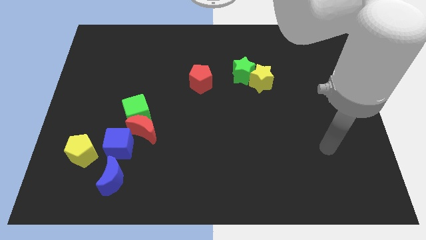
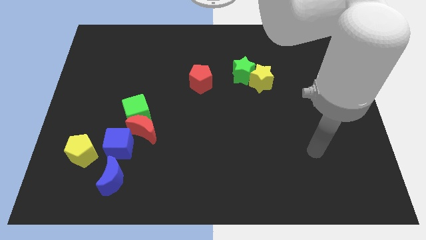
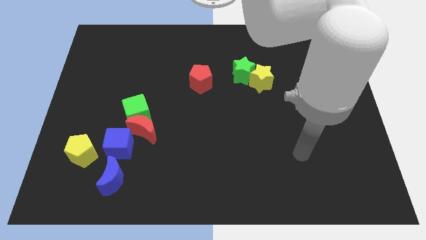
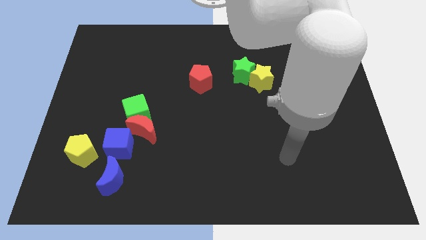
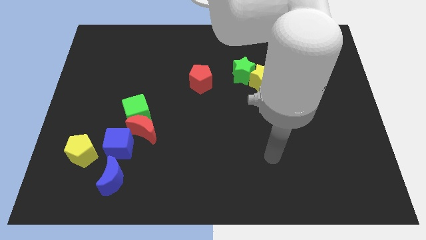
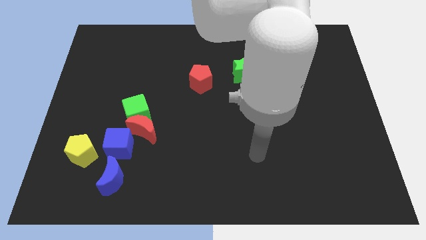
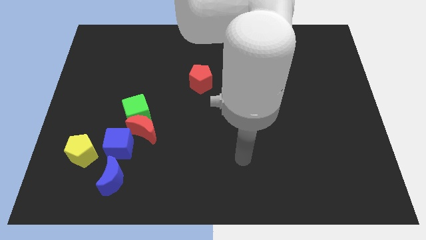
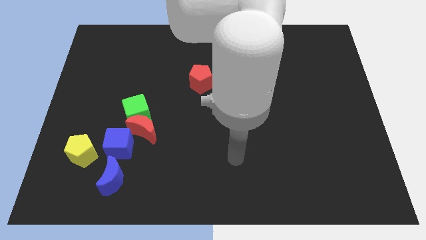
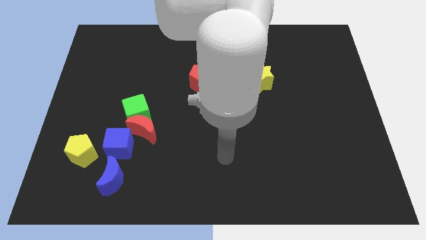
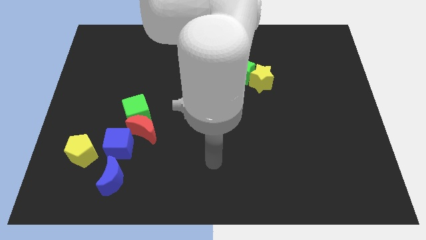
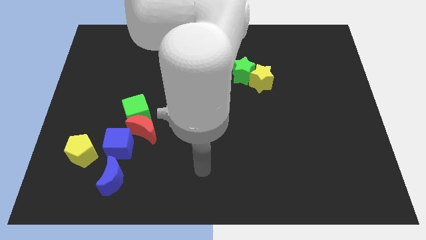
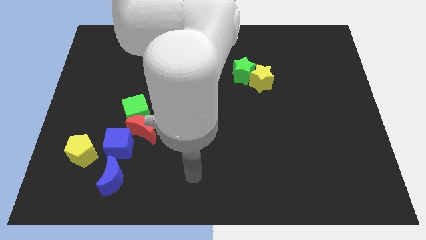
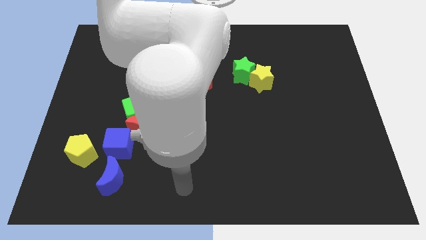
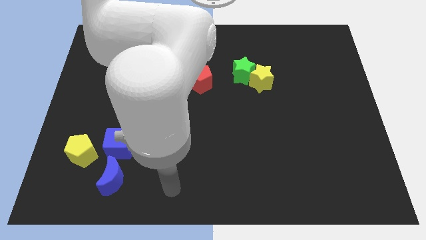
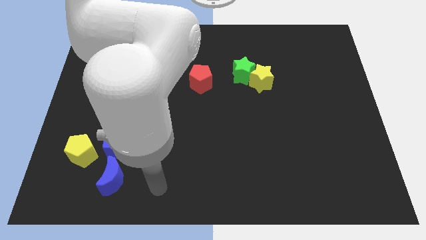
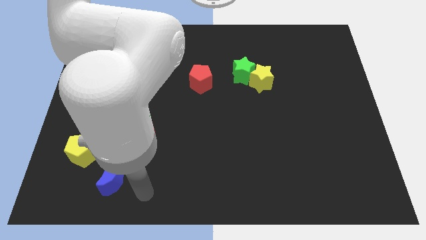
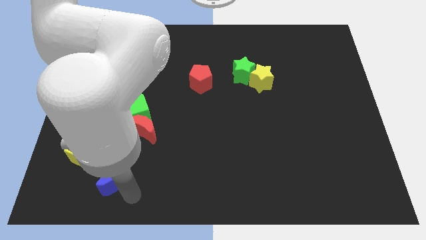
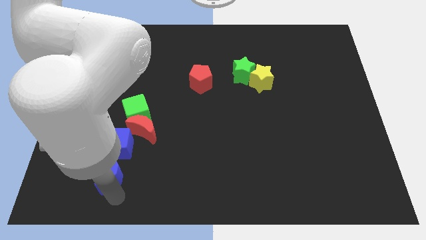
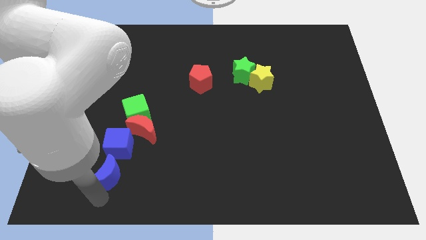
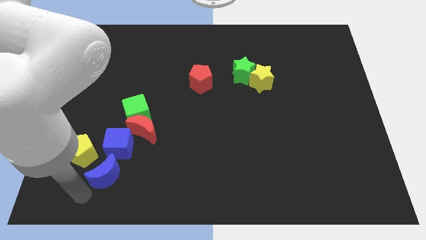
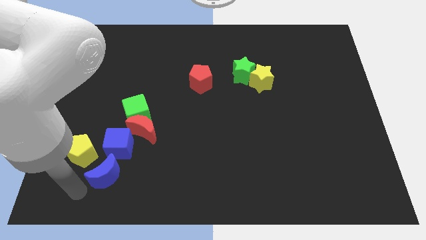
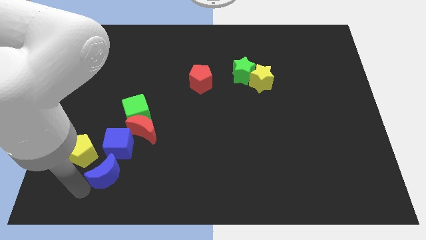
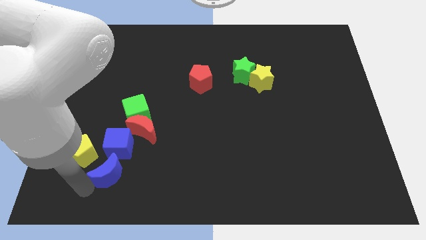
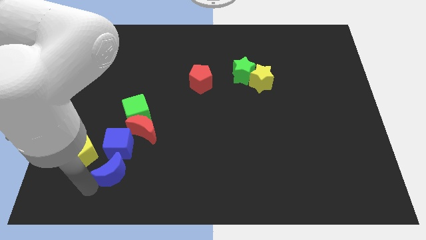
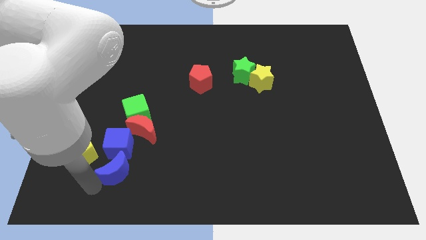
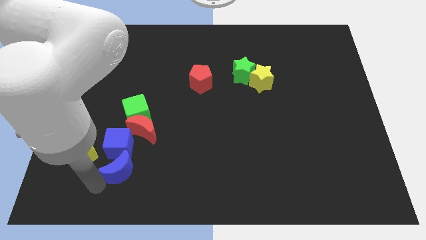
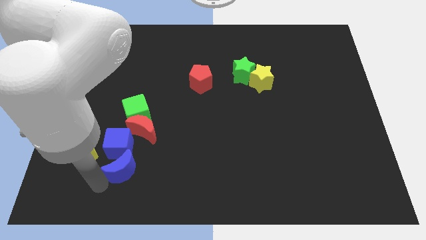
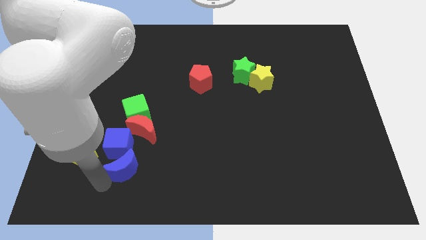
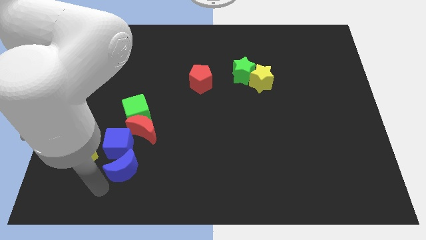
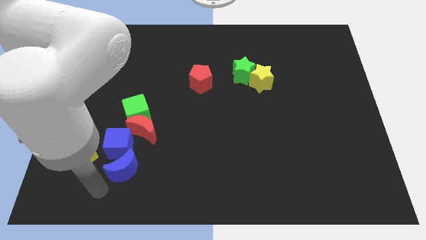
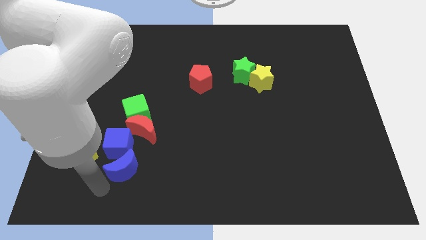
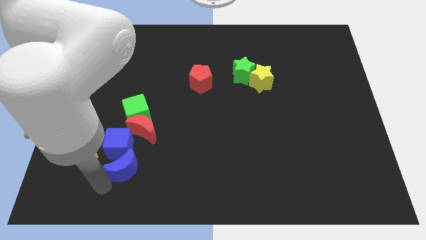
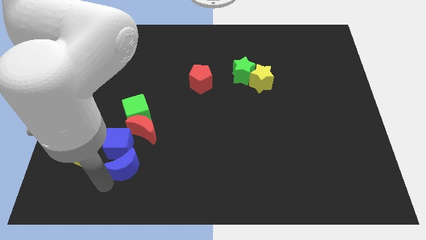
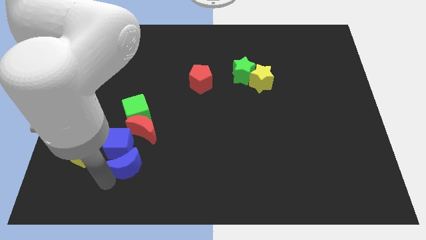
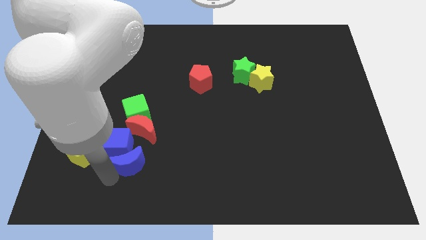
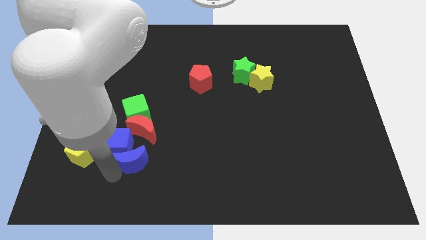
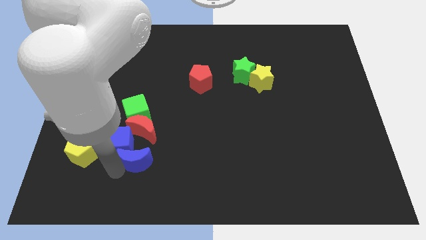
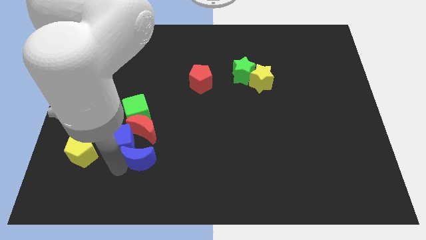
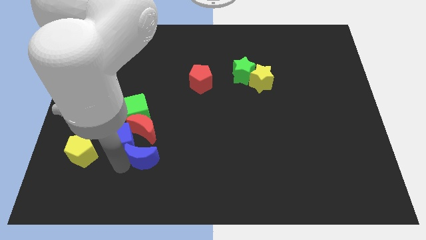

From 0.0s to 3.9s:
slide the blue moon diagonally upwards and right somewhat

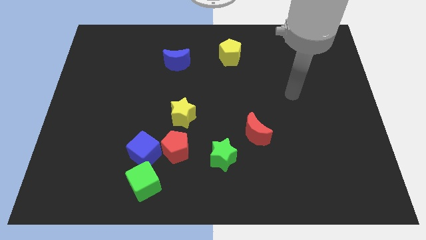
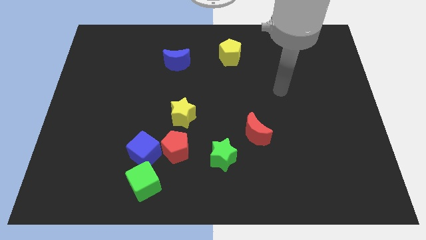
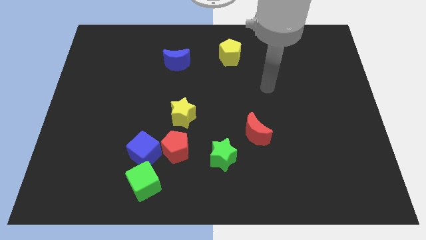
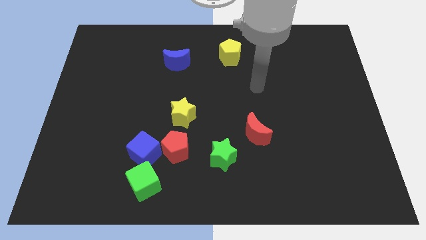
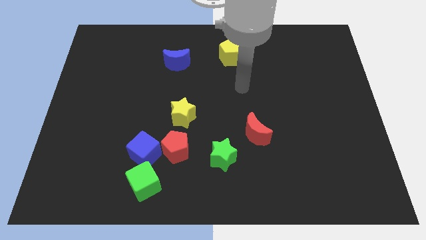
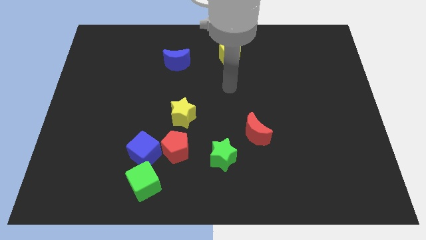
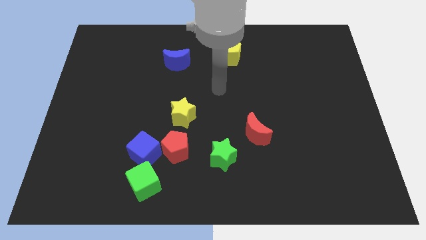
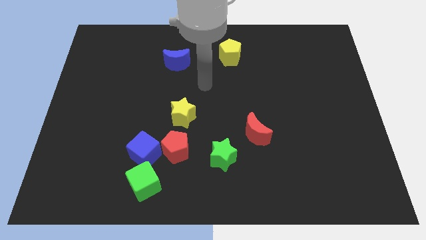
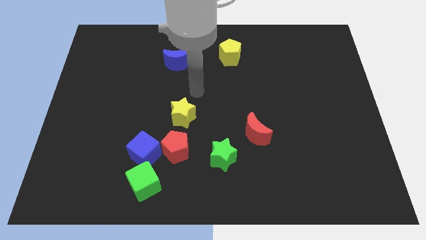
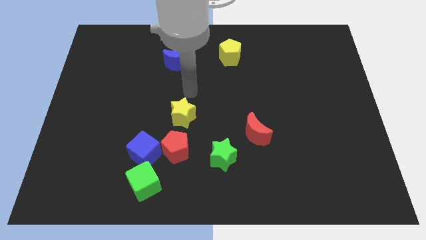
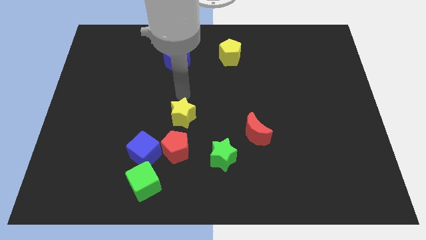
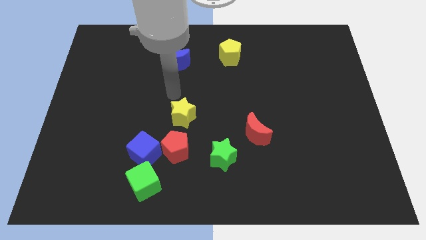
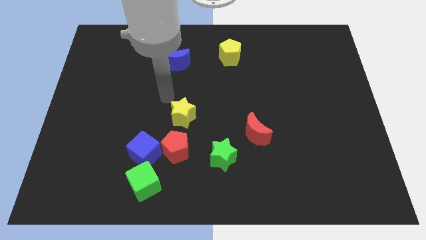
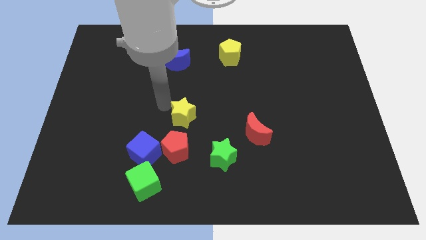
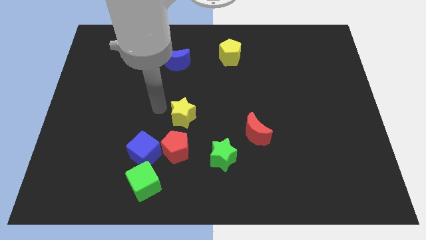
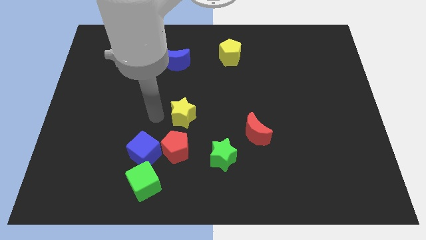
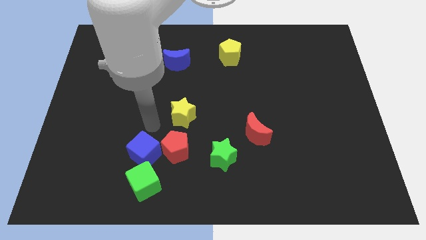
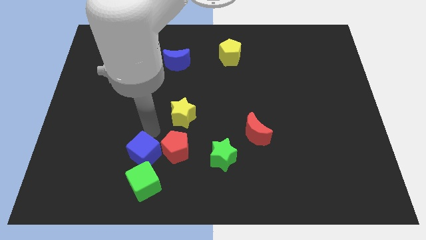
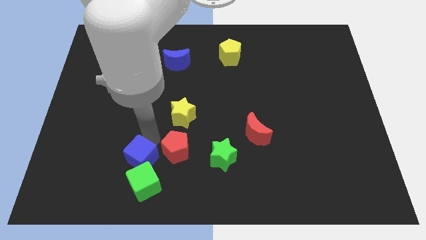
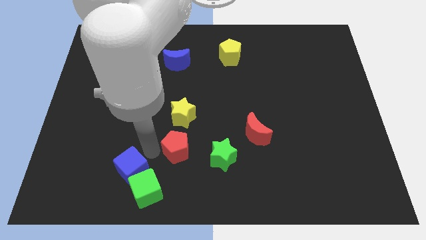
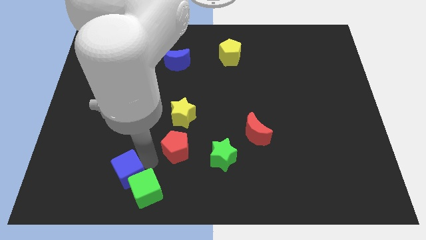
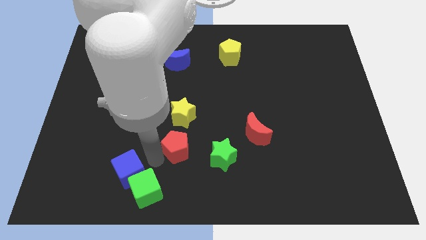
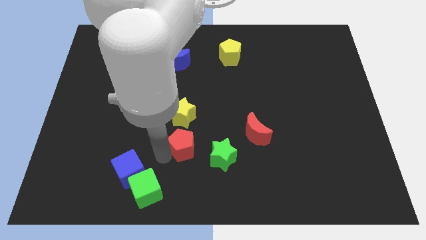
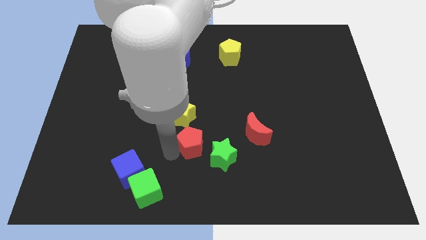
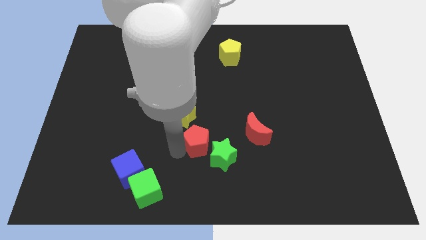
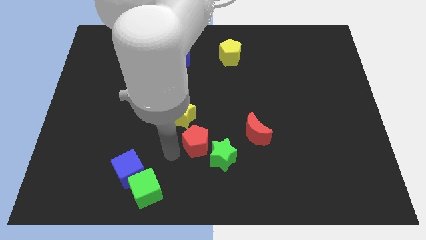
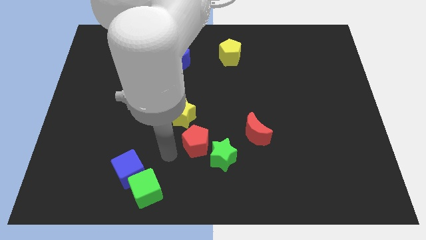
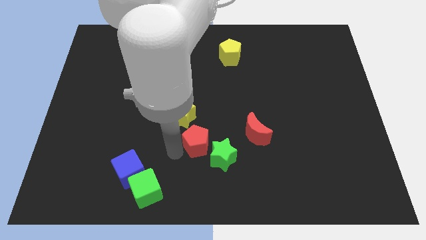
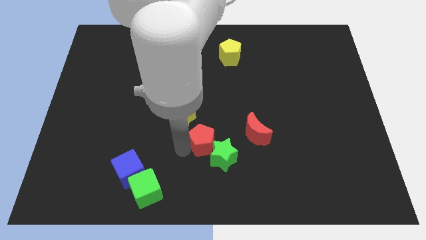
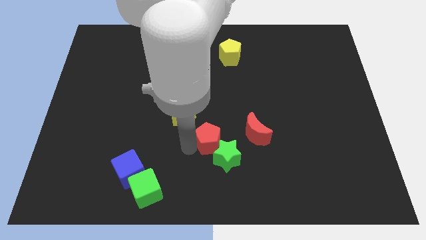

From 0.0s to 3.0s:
slide the red pentagon to the right slightly

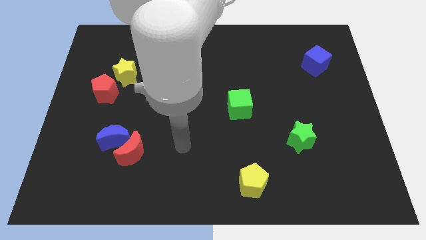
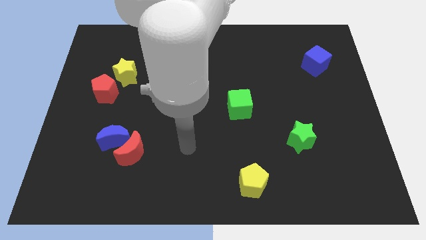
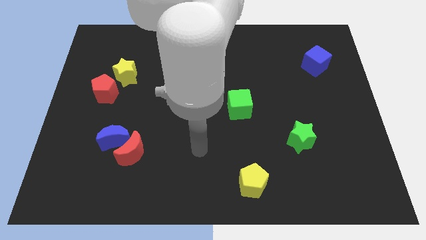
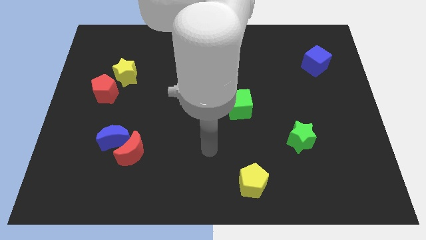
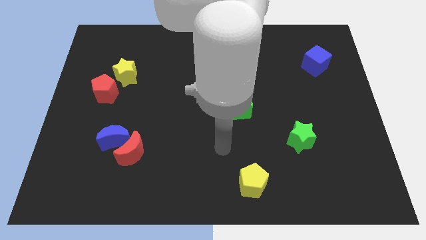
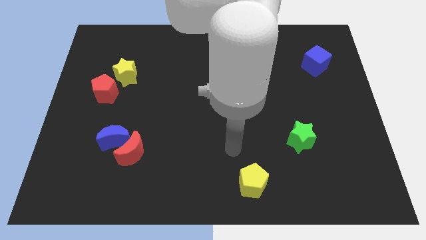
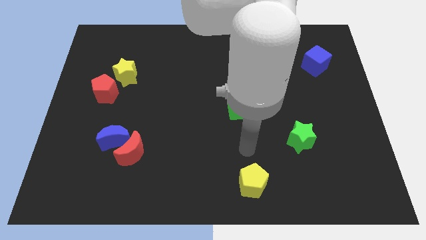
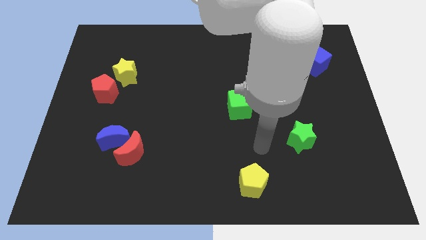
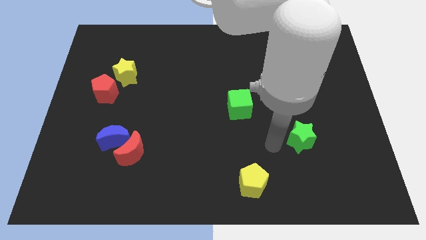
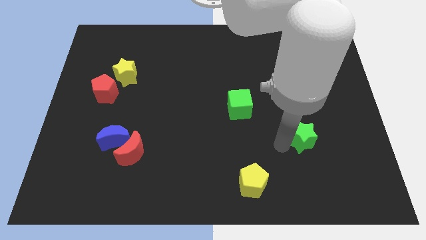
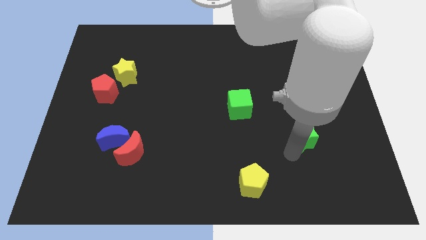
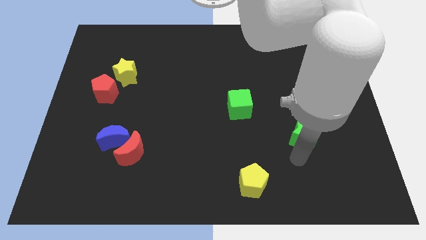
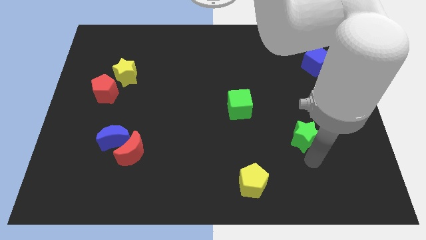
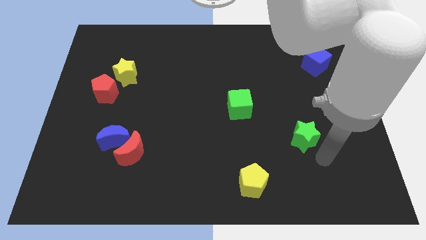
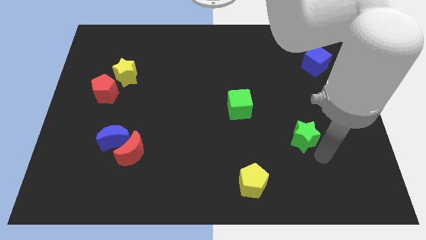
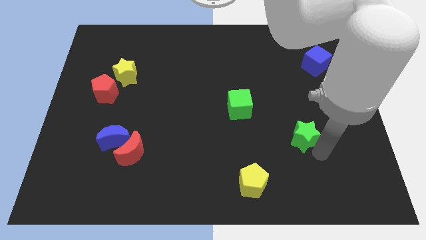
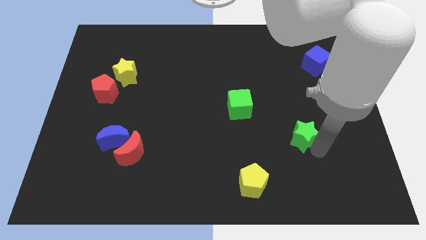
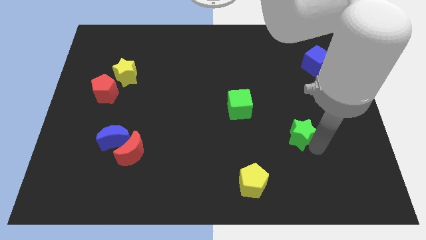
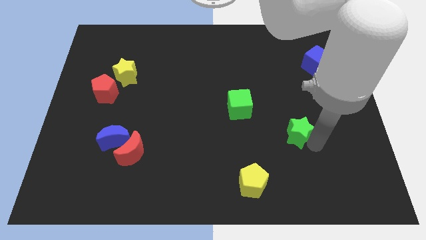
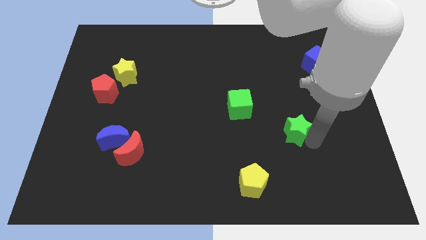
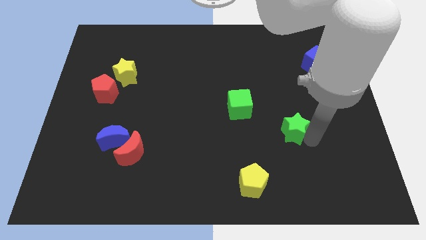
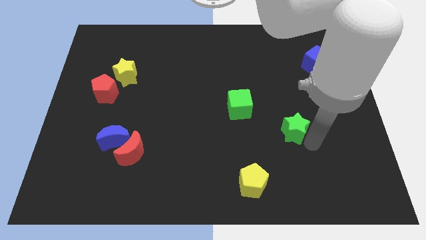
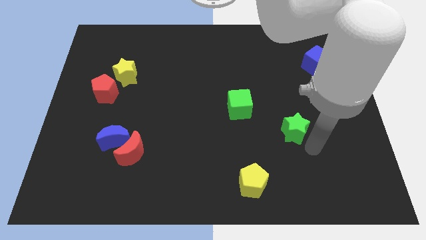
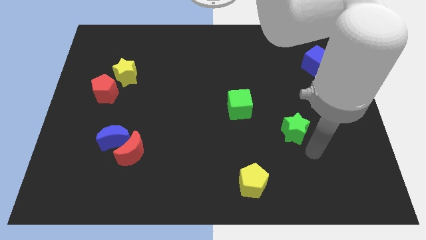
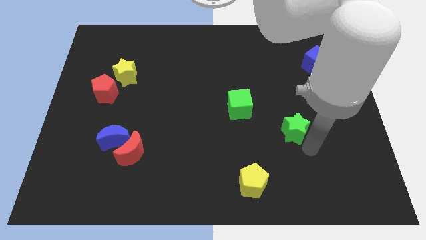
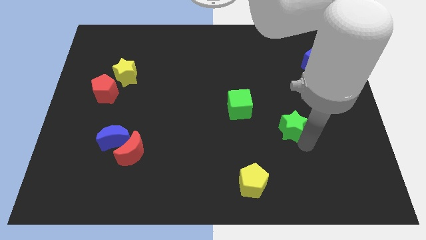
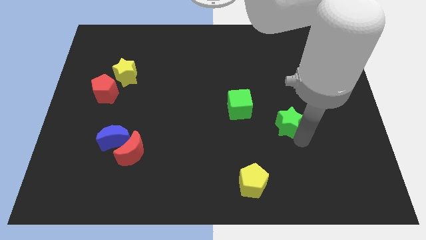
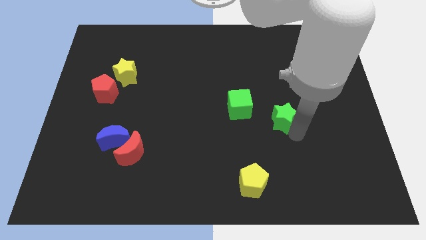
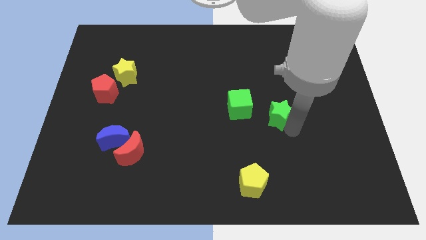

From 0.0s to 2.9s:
slightly push the green star upwards and left
